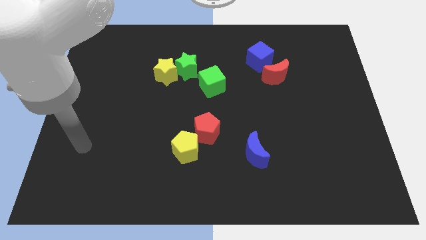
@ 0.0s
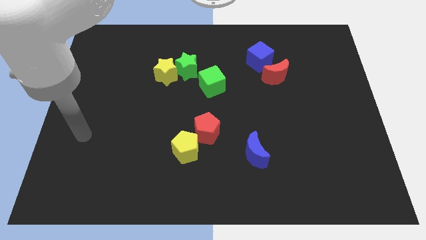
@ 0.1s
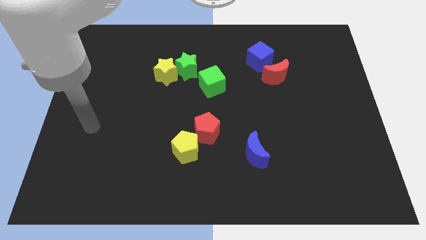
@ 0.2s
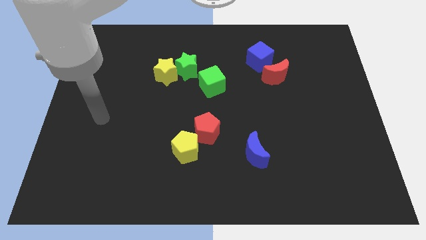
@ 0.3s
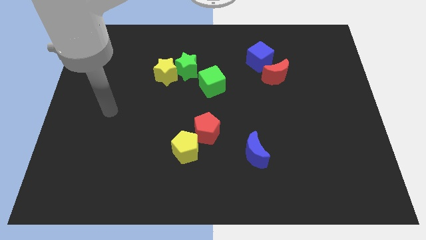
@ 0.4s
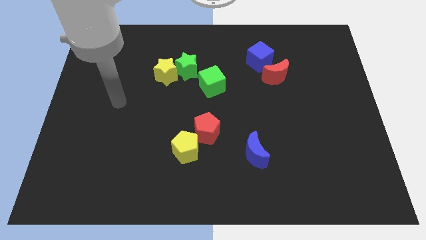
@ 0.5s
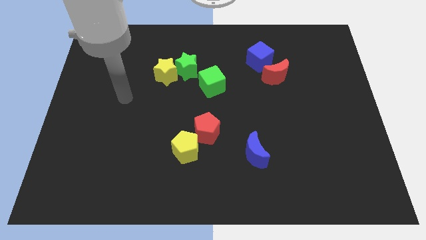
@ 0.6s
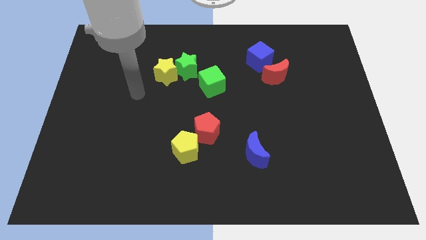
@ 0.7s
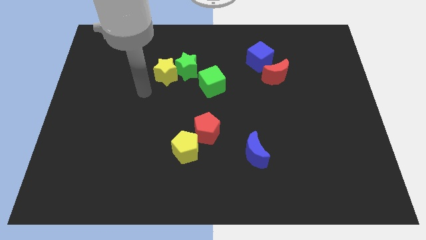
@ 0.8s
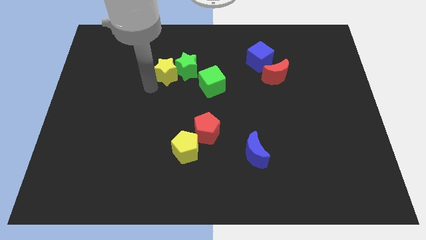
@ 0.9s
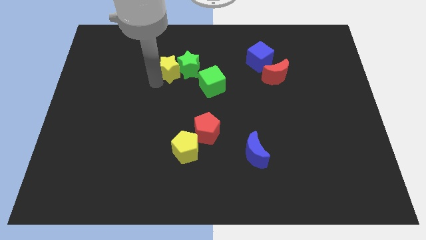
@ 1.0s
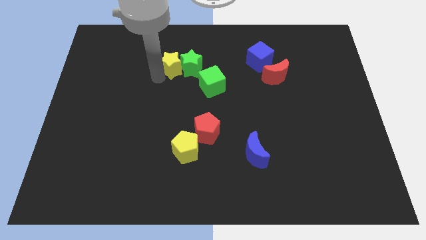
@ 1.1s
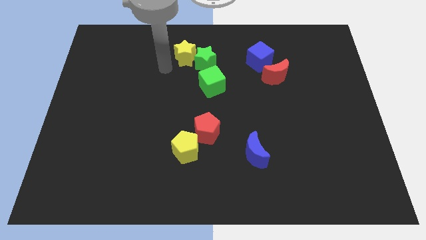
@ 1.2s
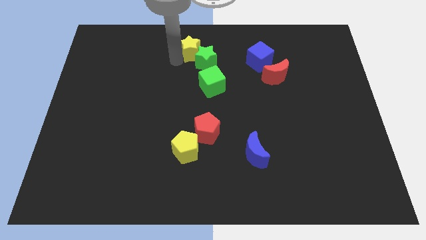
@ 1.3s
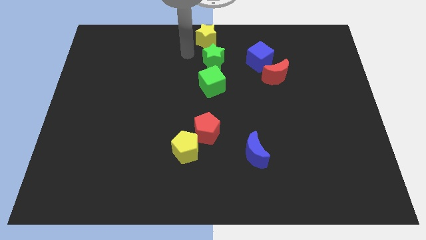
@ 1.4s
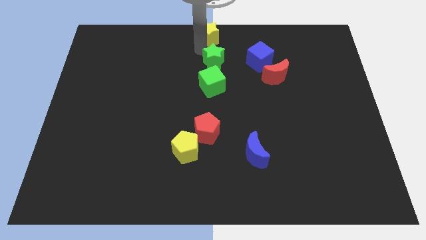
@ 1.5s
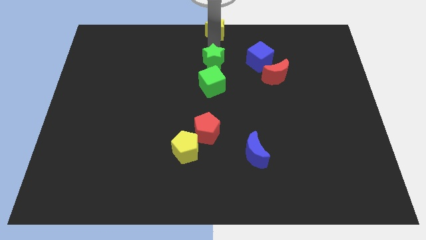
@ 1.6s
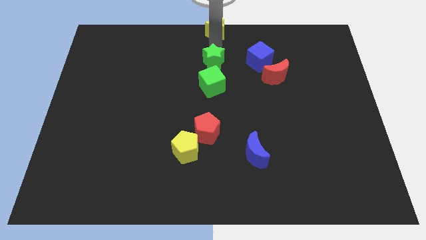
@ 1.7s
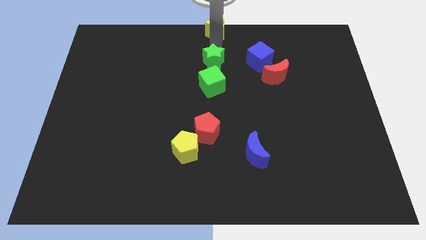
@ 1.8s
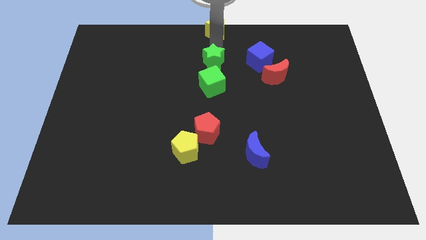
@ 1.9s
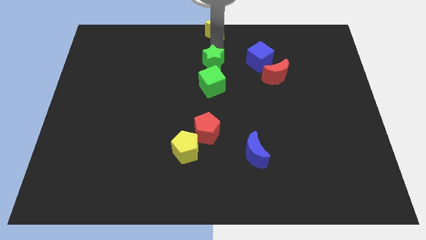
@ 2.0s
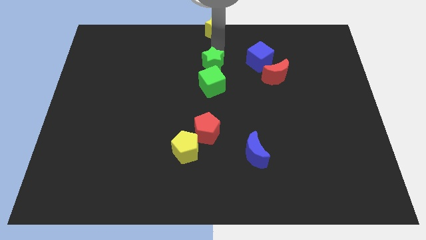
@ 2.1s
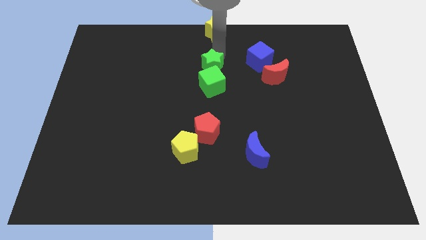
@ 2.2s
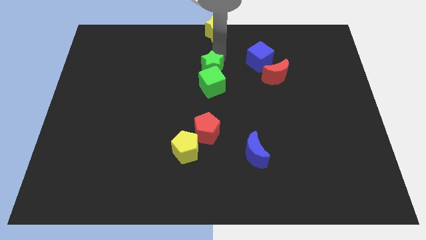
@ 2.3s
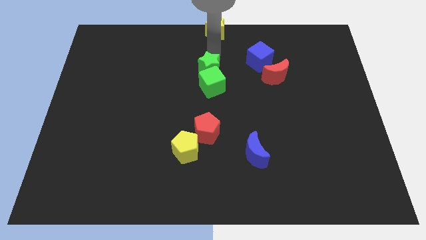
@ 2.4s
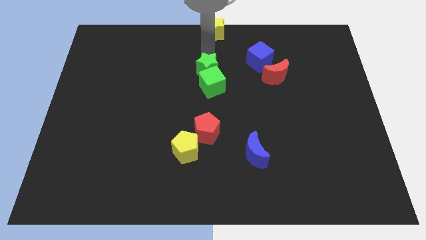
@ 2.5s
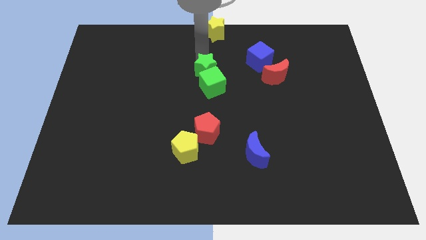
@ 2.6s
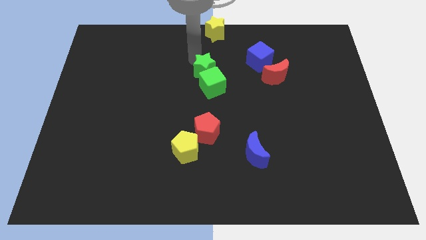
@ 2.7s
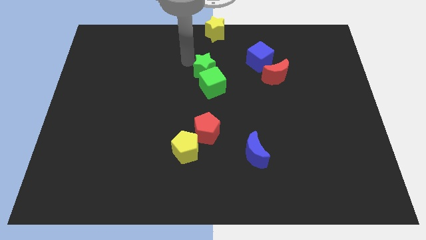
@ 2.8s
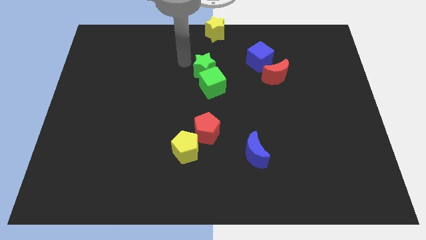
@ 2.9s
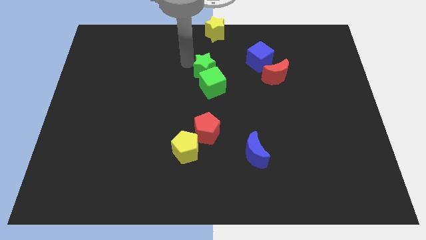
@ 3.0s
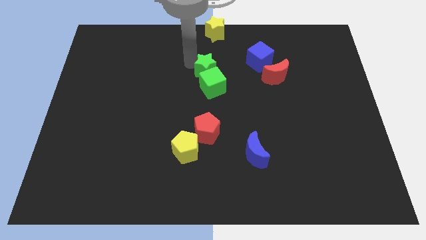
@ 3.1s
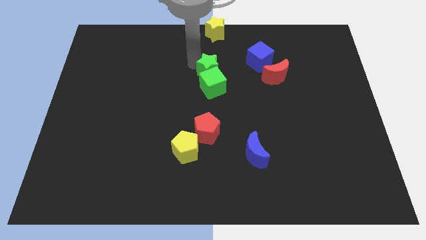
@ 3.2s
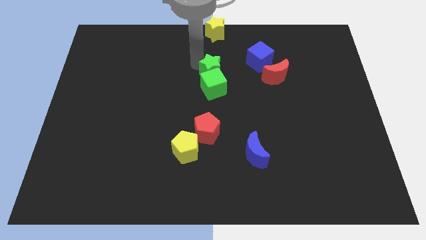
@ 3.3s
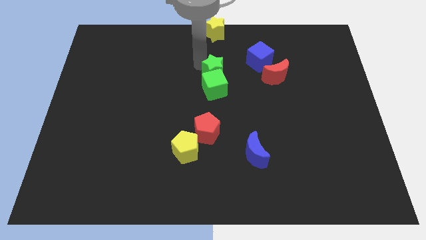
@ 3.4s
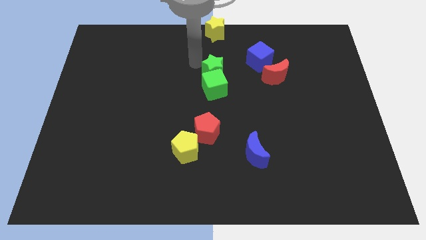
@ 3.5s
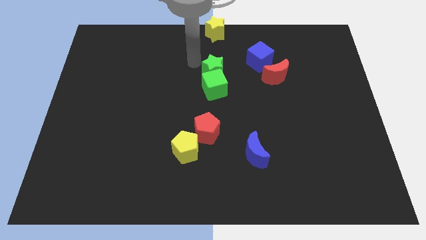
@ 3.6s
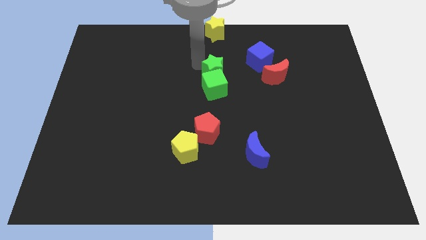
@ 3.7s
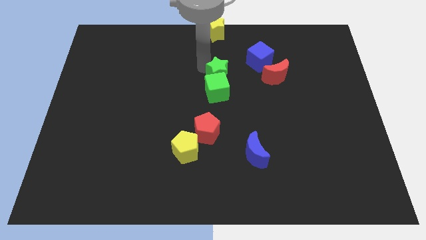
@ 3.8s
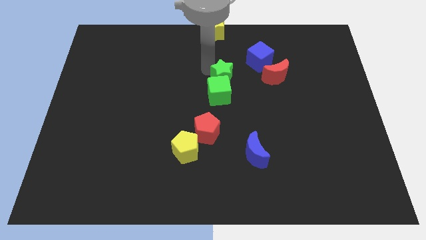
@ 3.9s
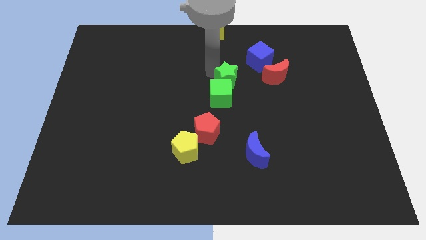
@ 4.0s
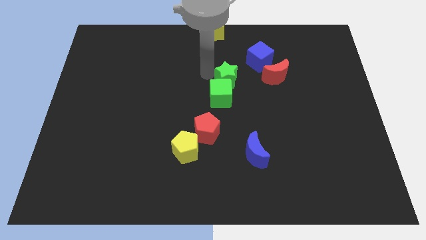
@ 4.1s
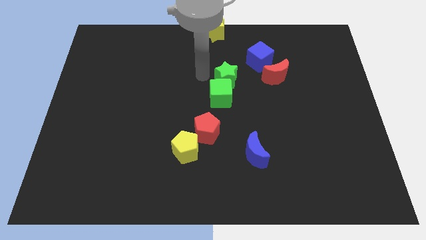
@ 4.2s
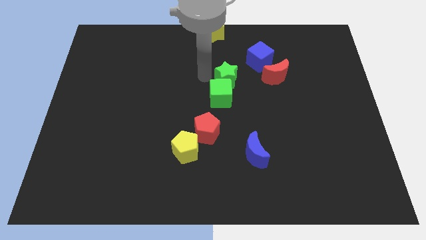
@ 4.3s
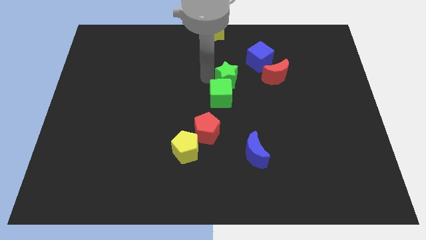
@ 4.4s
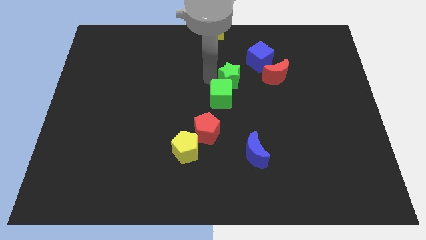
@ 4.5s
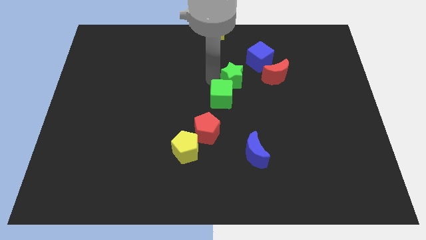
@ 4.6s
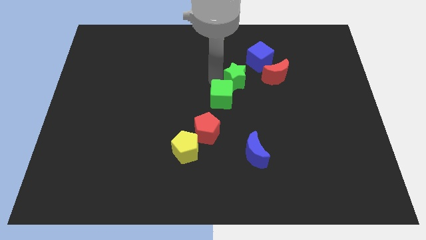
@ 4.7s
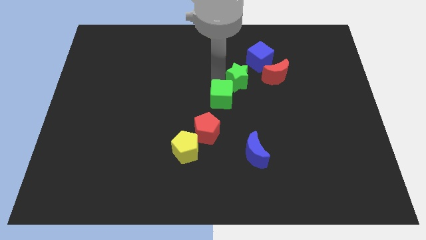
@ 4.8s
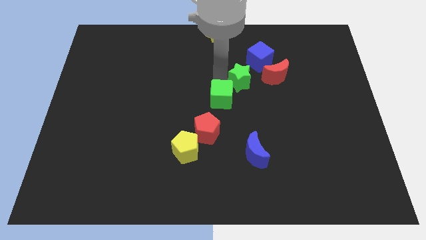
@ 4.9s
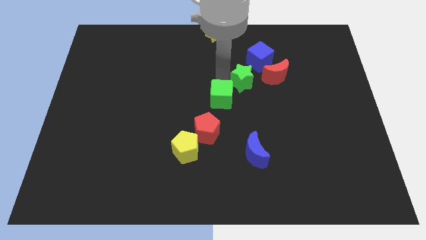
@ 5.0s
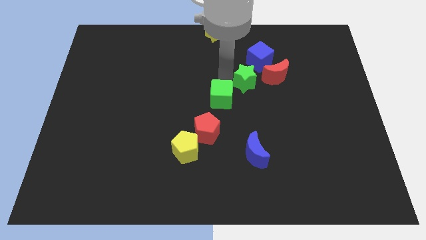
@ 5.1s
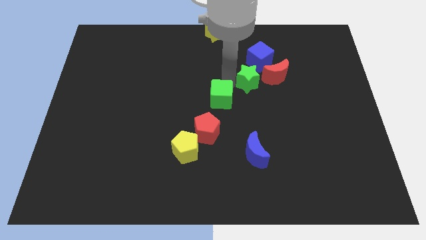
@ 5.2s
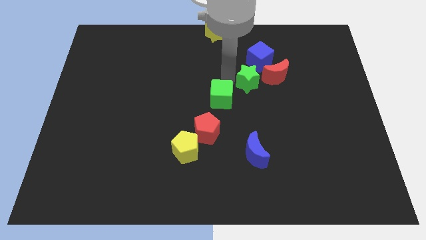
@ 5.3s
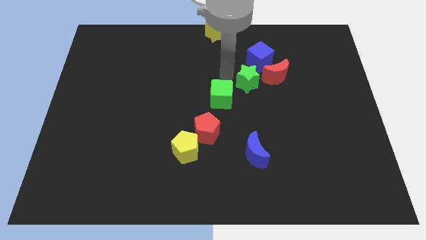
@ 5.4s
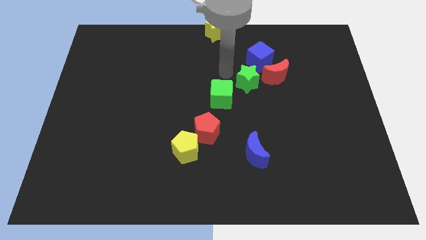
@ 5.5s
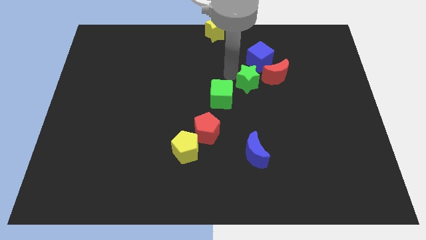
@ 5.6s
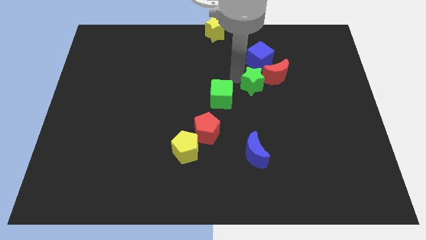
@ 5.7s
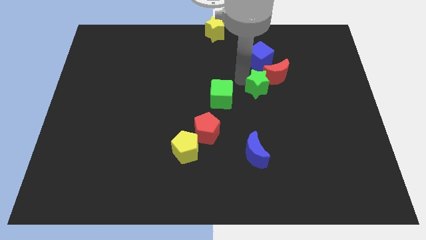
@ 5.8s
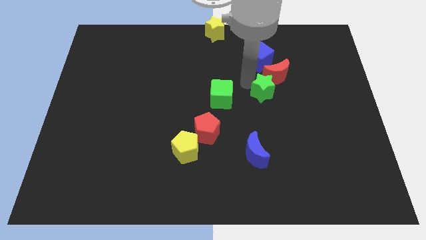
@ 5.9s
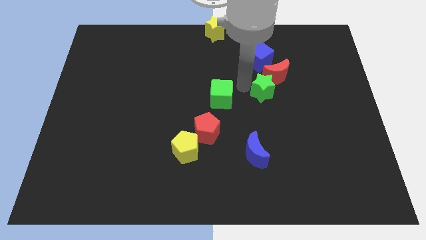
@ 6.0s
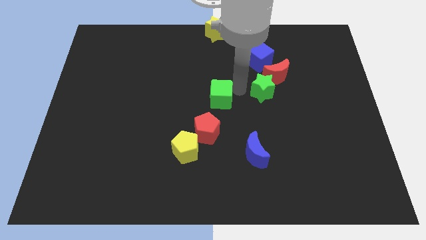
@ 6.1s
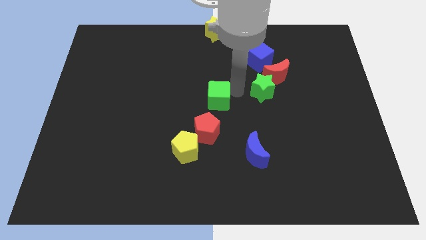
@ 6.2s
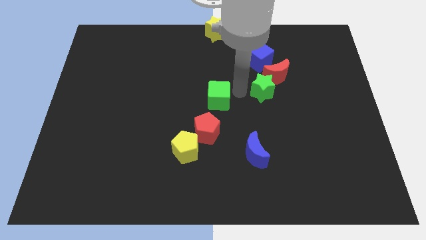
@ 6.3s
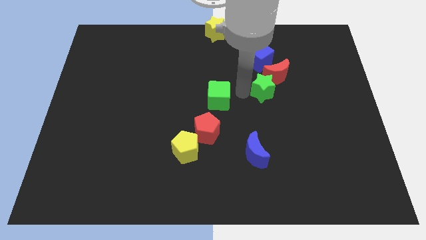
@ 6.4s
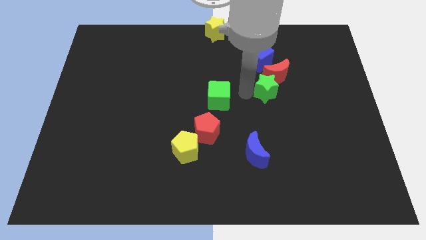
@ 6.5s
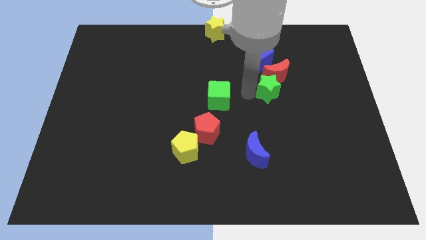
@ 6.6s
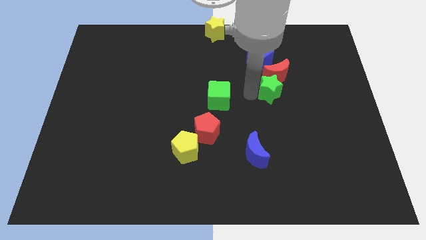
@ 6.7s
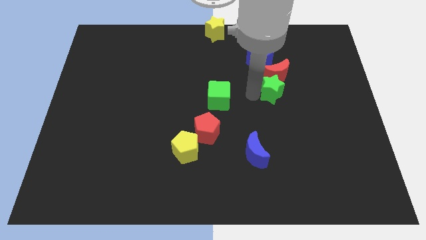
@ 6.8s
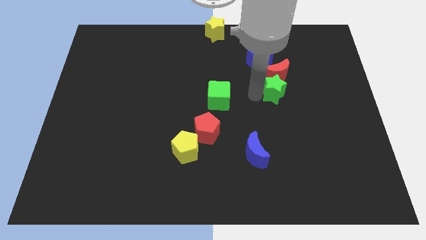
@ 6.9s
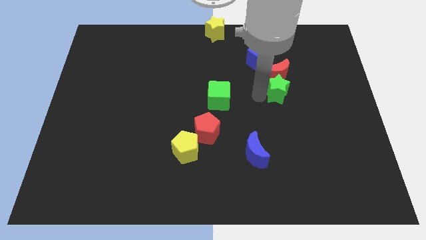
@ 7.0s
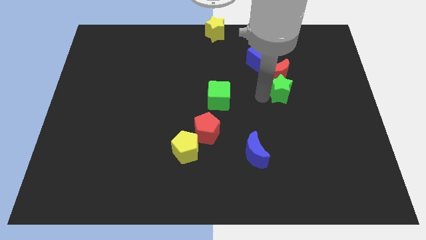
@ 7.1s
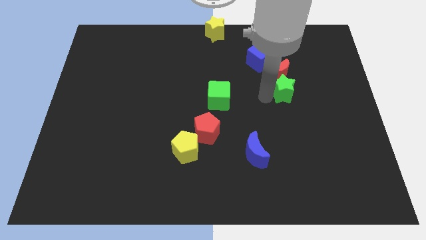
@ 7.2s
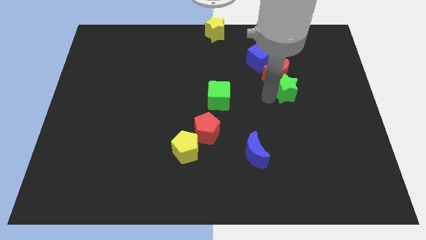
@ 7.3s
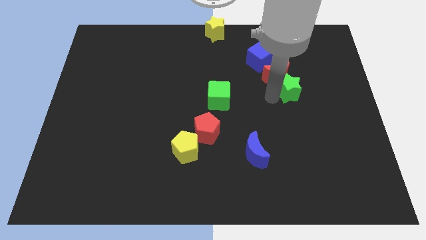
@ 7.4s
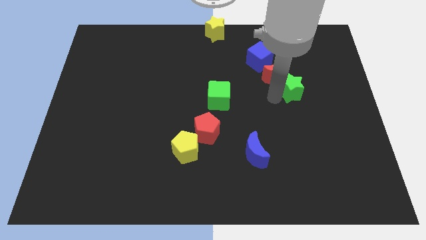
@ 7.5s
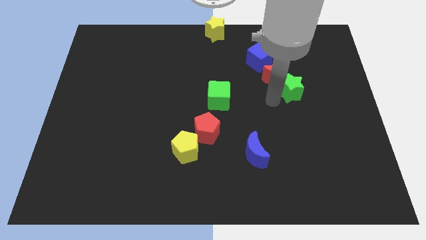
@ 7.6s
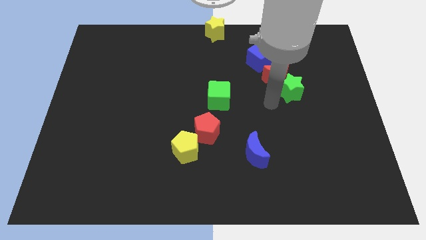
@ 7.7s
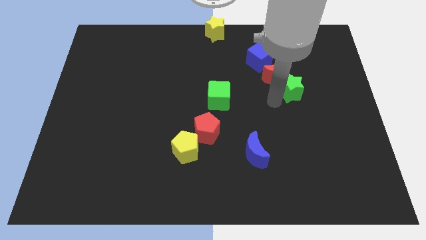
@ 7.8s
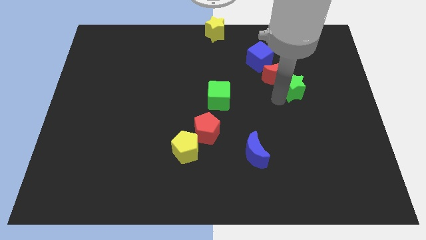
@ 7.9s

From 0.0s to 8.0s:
move the green star to the right of the red moon
